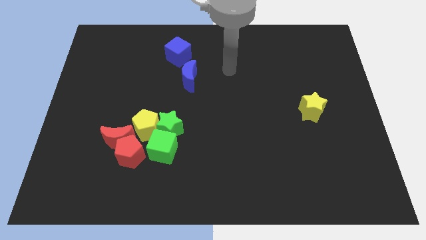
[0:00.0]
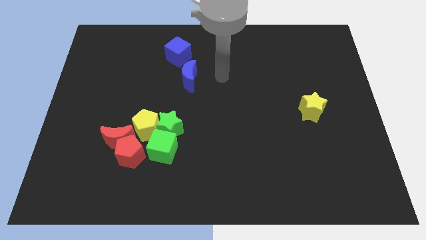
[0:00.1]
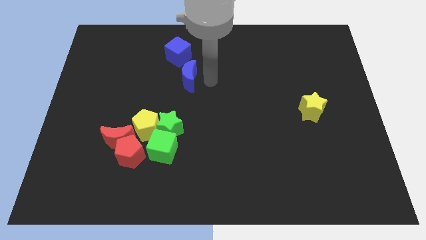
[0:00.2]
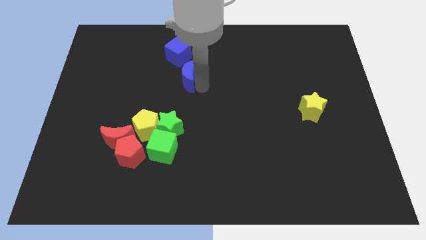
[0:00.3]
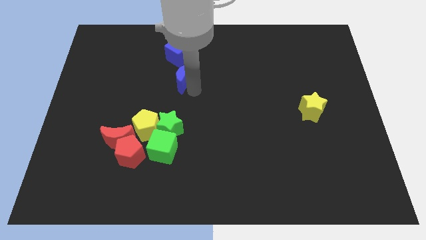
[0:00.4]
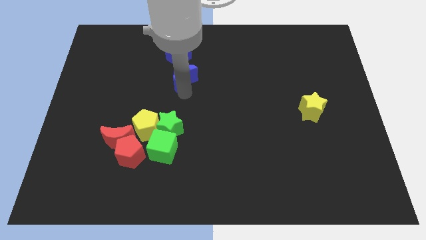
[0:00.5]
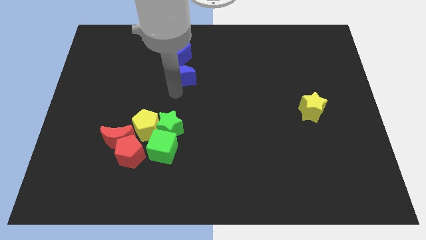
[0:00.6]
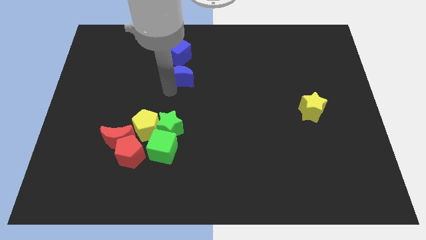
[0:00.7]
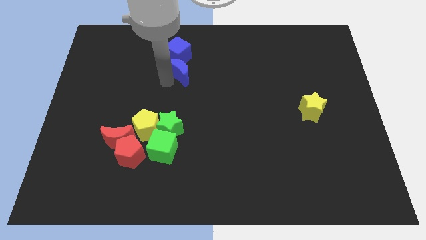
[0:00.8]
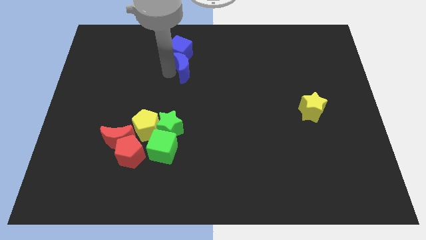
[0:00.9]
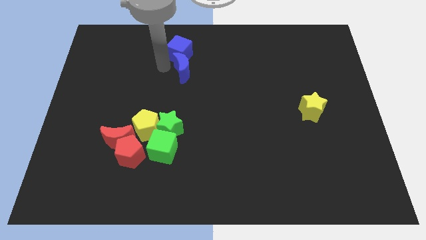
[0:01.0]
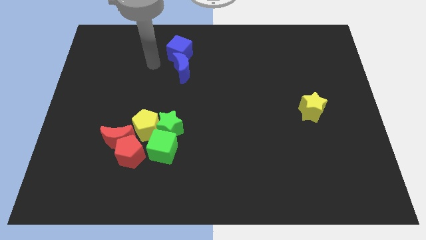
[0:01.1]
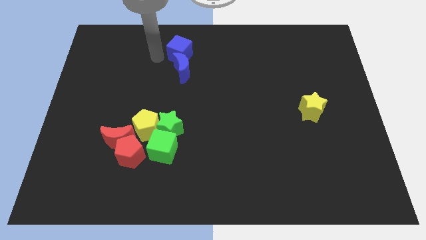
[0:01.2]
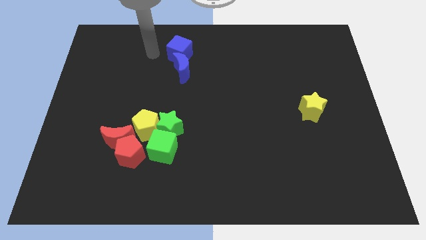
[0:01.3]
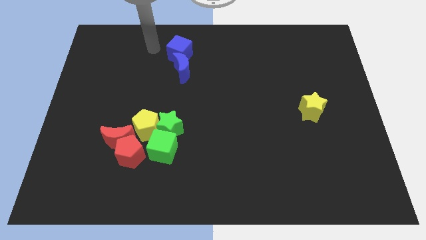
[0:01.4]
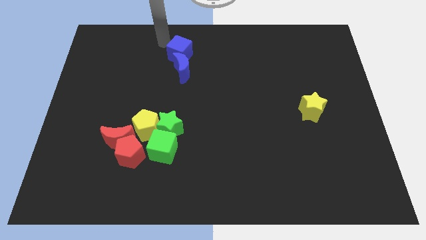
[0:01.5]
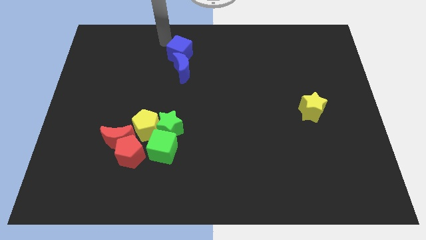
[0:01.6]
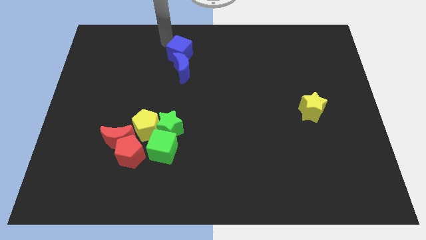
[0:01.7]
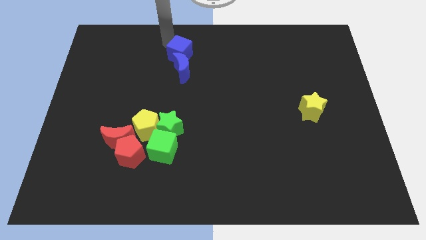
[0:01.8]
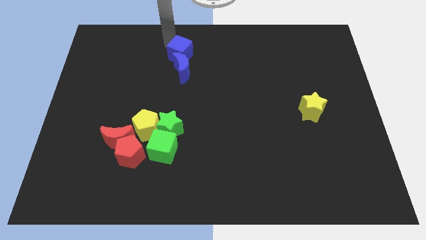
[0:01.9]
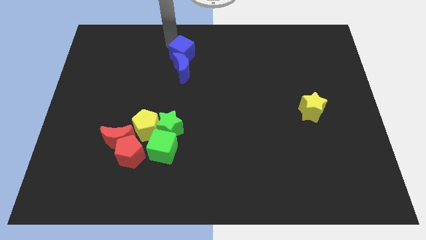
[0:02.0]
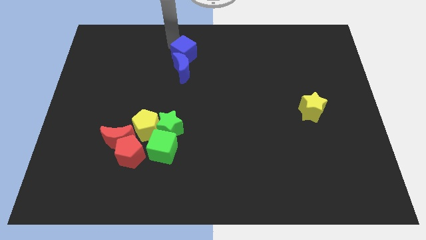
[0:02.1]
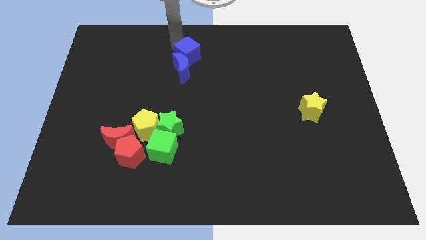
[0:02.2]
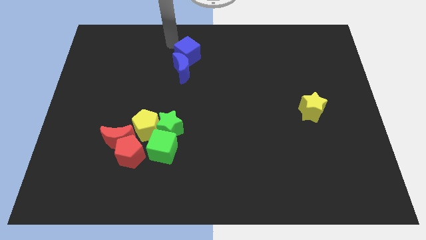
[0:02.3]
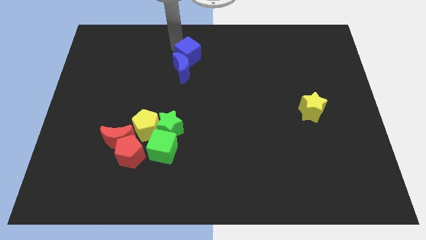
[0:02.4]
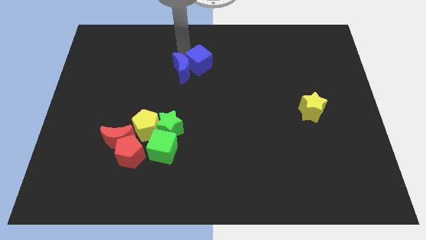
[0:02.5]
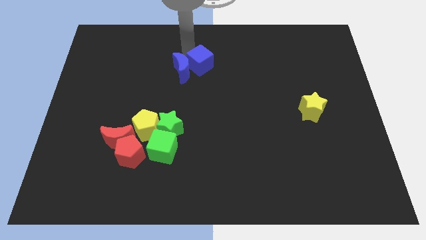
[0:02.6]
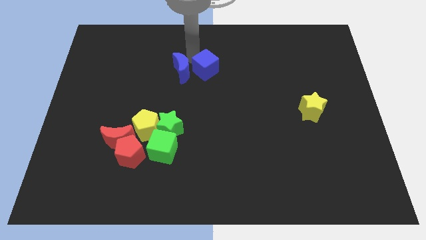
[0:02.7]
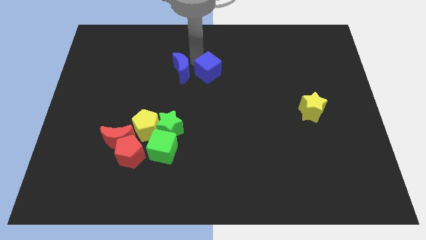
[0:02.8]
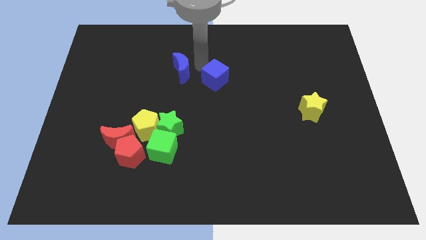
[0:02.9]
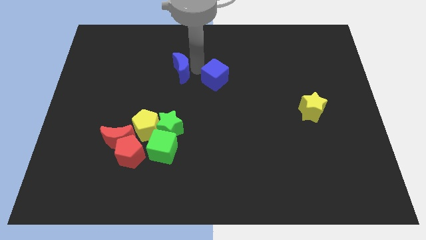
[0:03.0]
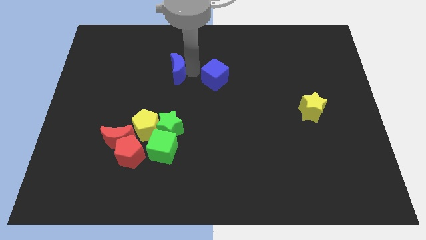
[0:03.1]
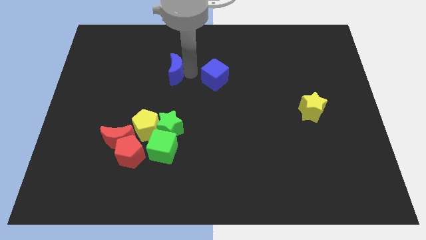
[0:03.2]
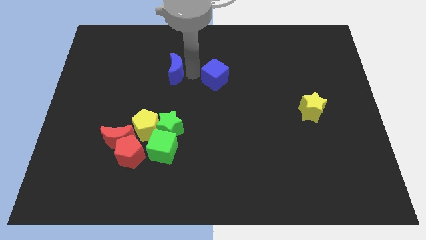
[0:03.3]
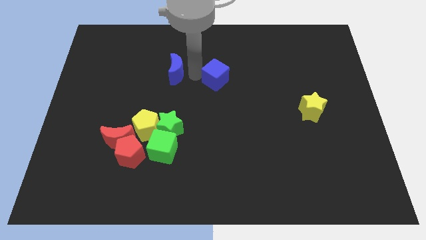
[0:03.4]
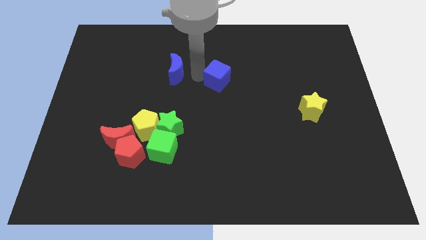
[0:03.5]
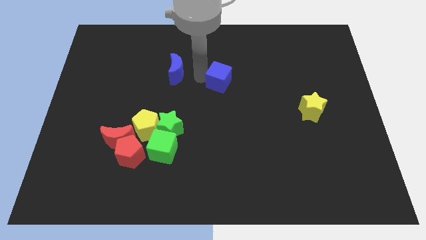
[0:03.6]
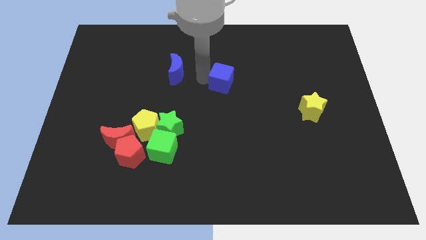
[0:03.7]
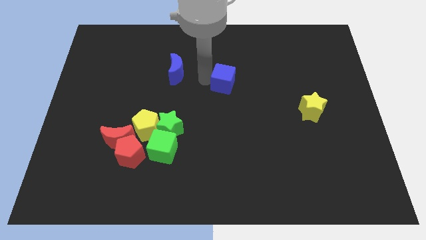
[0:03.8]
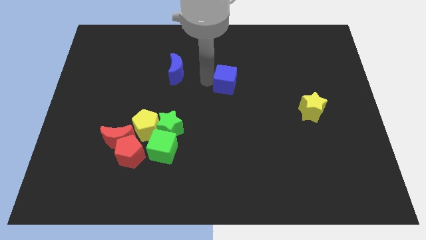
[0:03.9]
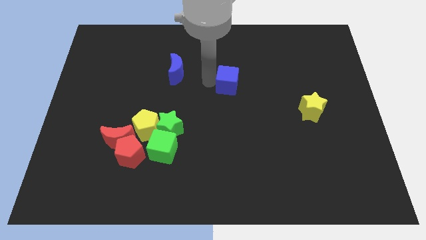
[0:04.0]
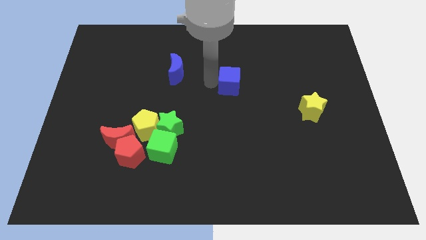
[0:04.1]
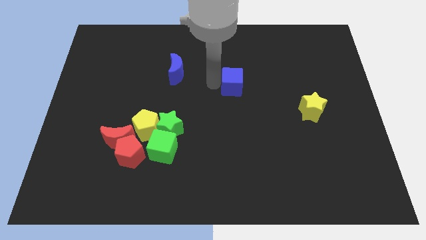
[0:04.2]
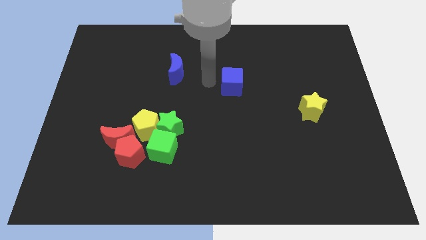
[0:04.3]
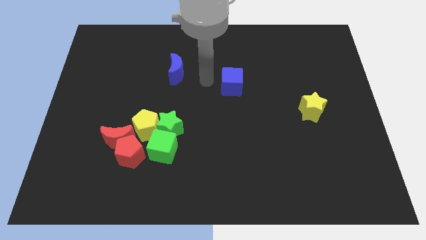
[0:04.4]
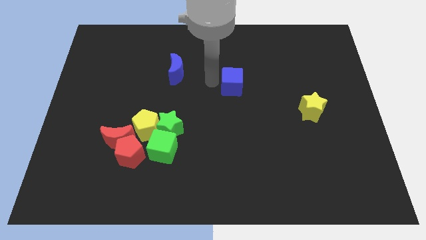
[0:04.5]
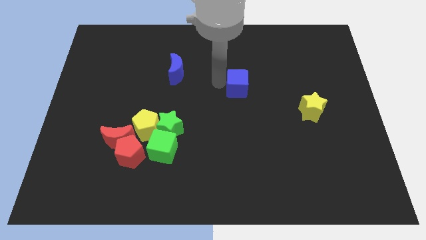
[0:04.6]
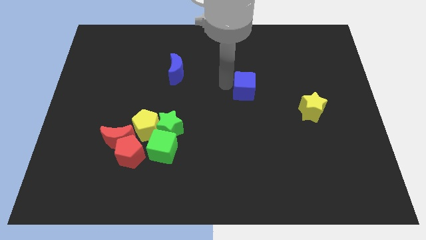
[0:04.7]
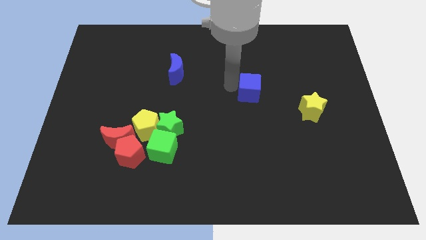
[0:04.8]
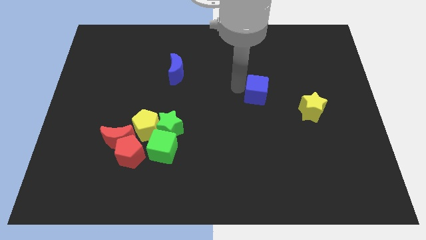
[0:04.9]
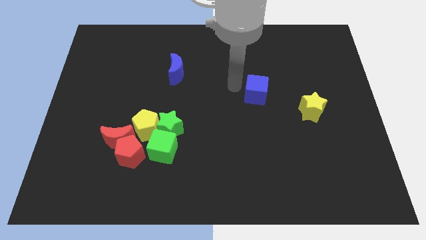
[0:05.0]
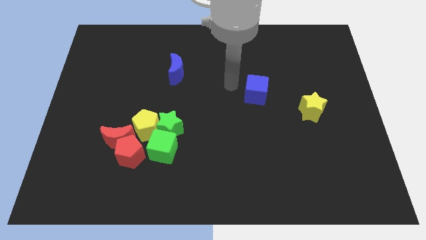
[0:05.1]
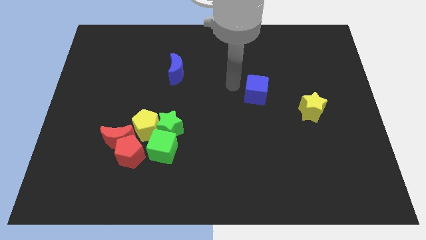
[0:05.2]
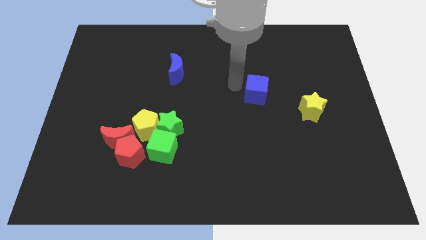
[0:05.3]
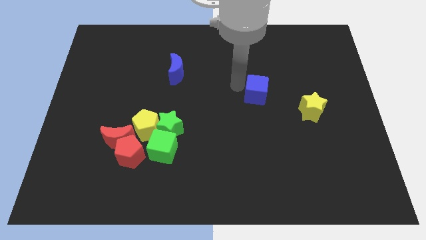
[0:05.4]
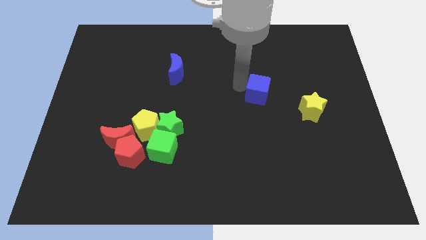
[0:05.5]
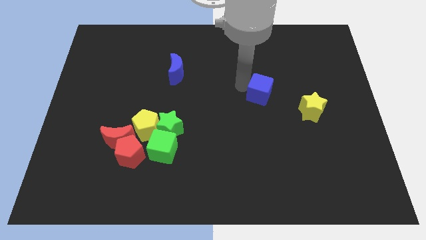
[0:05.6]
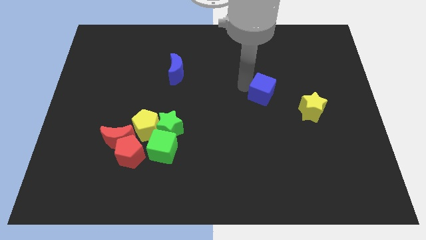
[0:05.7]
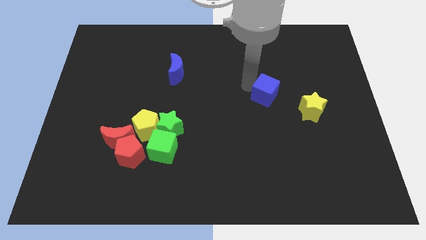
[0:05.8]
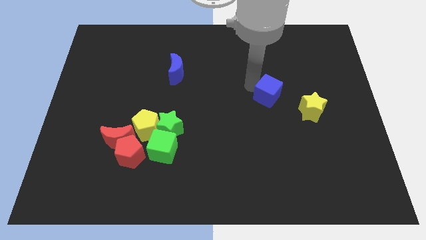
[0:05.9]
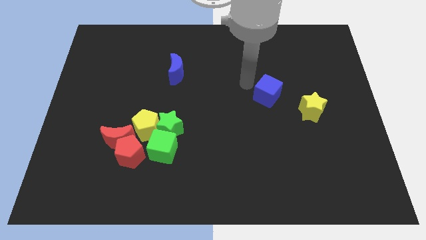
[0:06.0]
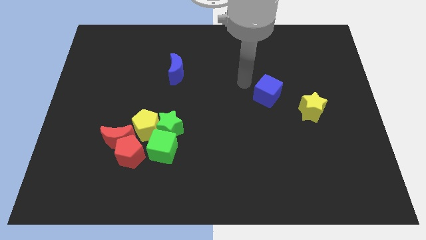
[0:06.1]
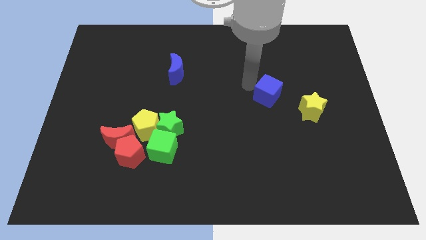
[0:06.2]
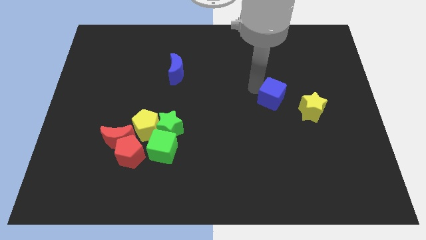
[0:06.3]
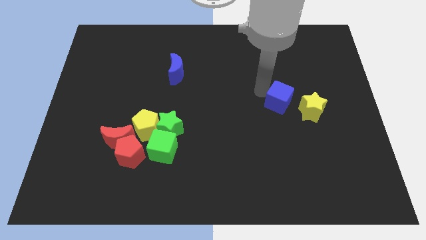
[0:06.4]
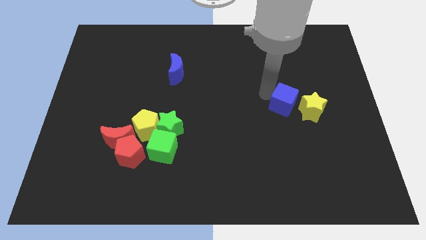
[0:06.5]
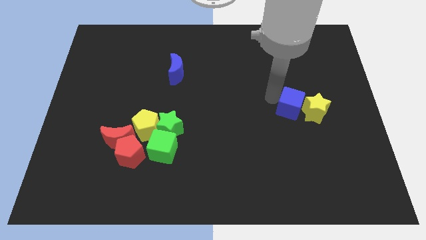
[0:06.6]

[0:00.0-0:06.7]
move the blue cube next to the yellow star

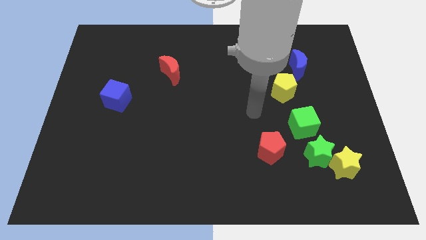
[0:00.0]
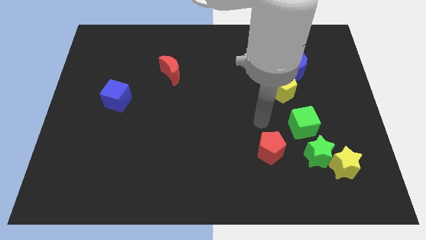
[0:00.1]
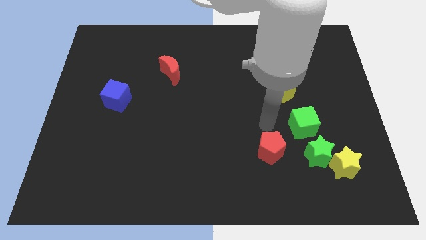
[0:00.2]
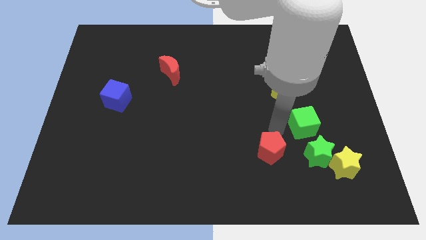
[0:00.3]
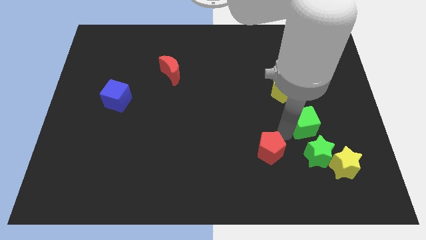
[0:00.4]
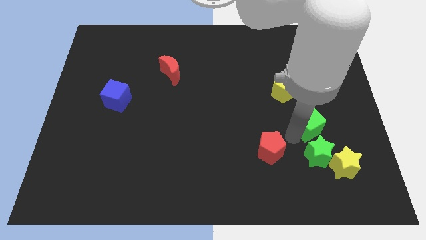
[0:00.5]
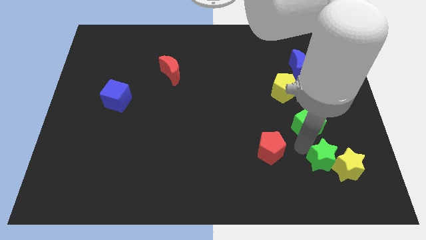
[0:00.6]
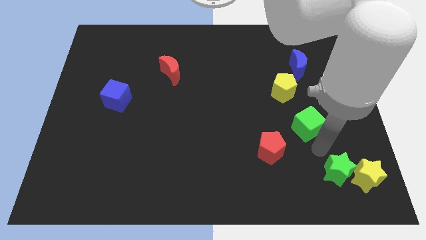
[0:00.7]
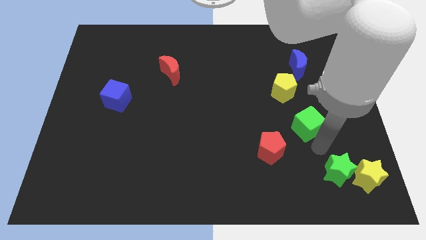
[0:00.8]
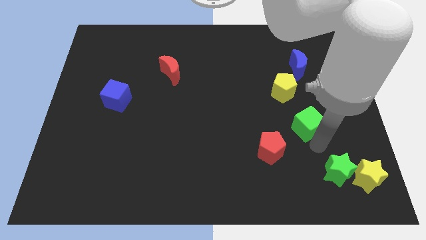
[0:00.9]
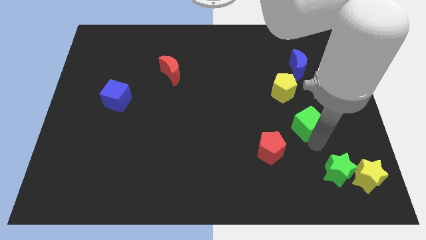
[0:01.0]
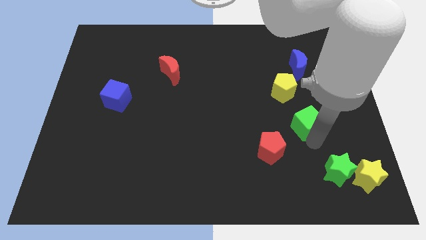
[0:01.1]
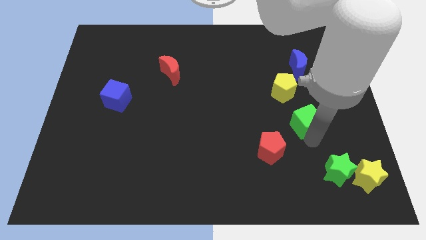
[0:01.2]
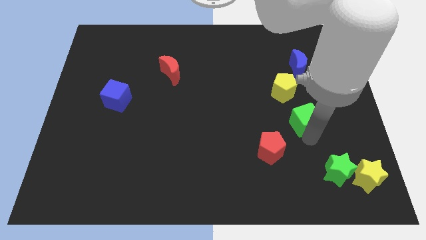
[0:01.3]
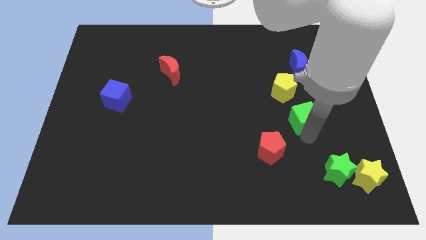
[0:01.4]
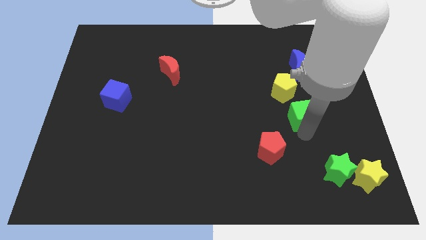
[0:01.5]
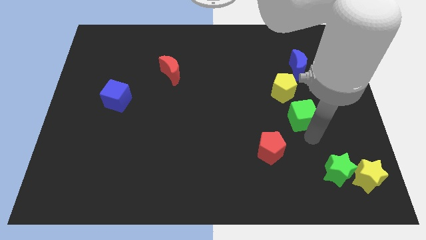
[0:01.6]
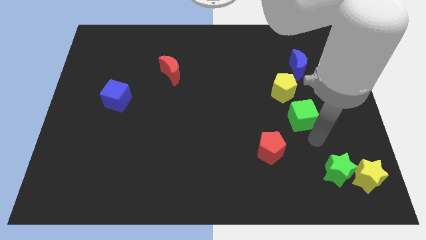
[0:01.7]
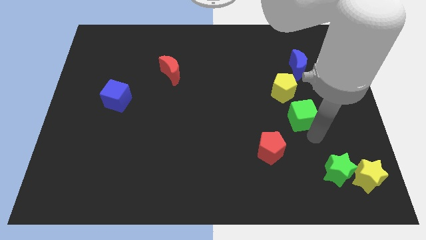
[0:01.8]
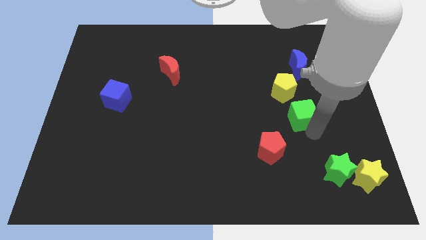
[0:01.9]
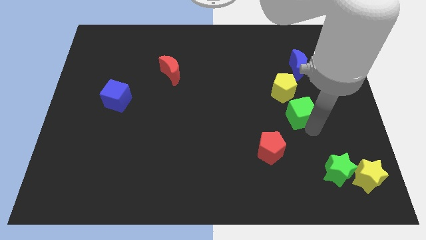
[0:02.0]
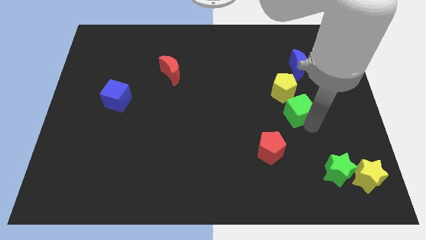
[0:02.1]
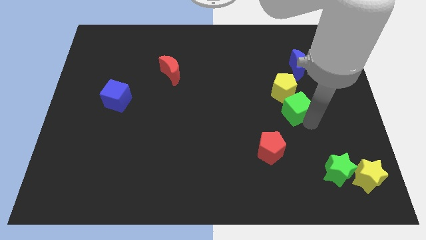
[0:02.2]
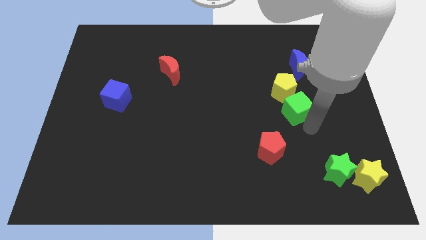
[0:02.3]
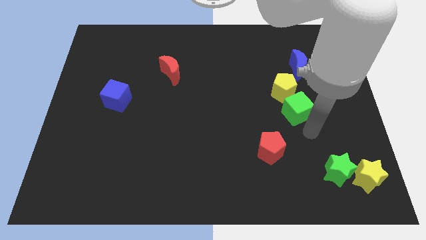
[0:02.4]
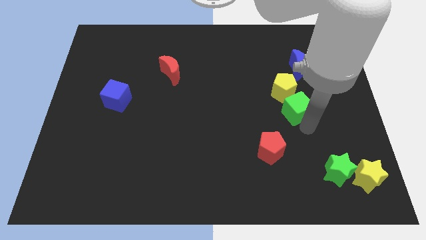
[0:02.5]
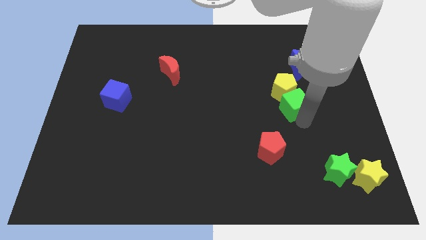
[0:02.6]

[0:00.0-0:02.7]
push the green cube close to the yellow pentagon
